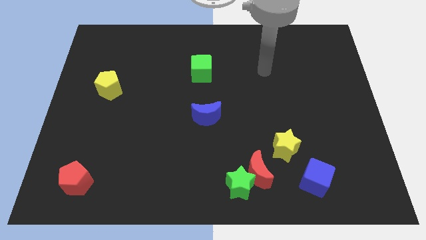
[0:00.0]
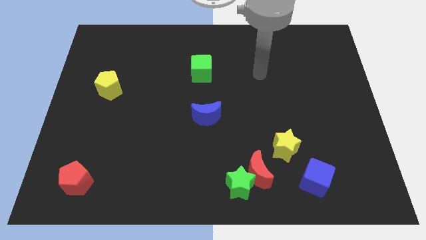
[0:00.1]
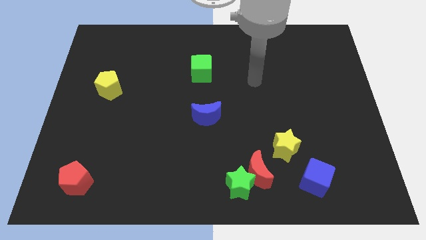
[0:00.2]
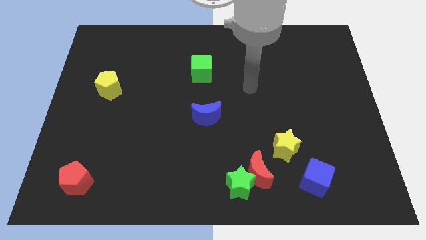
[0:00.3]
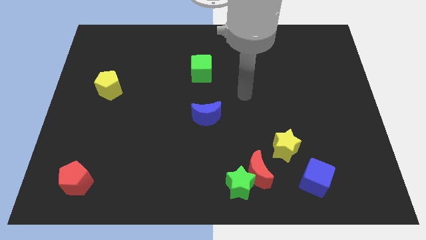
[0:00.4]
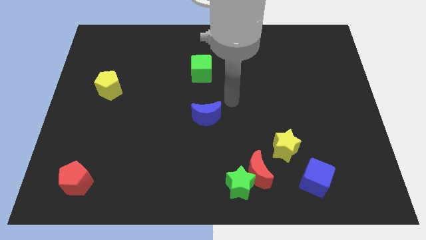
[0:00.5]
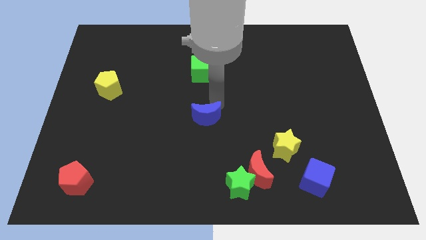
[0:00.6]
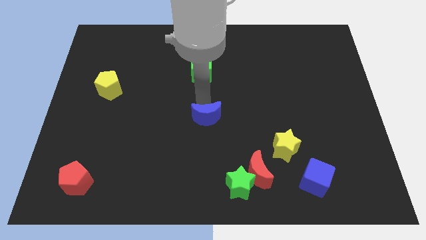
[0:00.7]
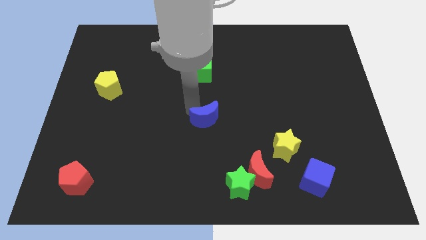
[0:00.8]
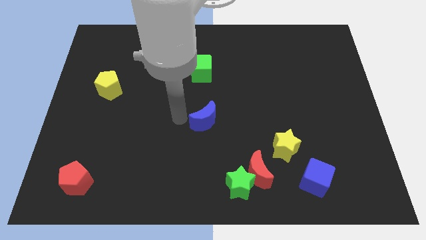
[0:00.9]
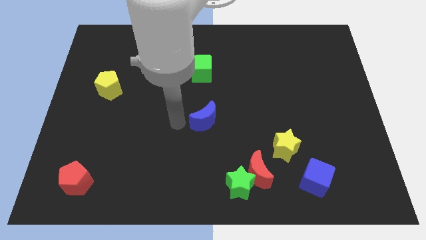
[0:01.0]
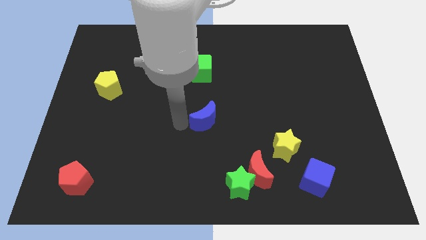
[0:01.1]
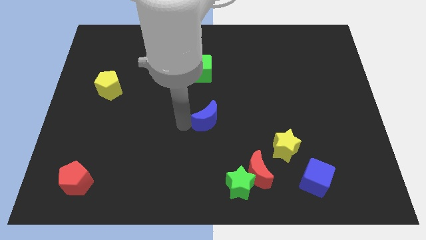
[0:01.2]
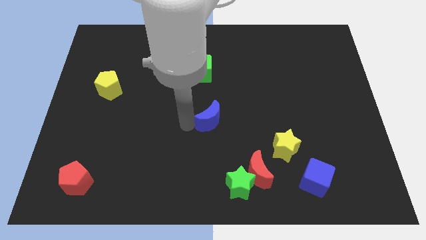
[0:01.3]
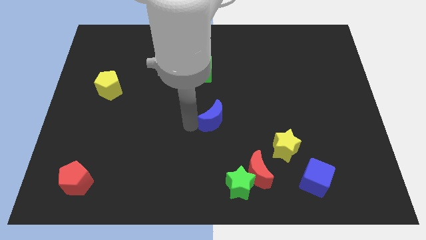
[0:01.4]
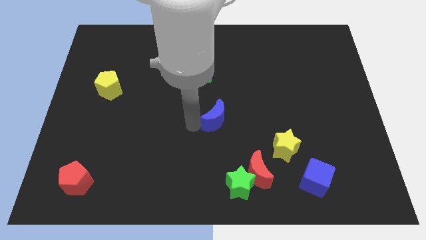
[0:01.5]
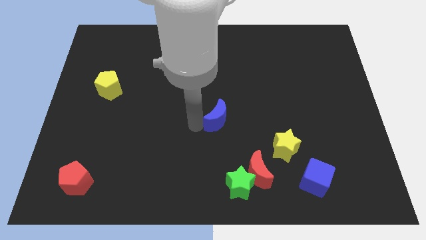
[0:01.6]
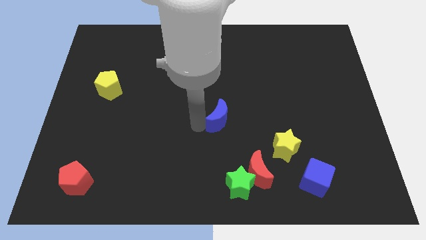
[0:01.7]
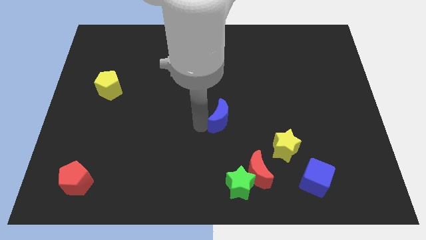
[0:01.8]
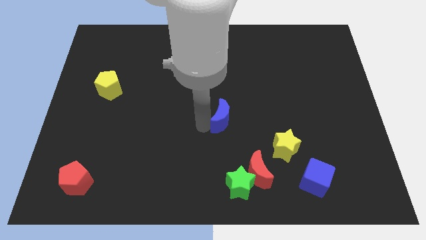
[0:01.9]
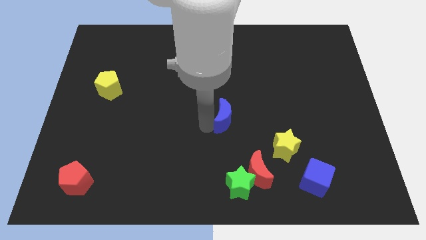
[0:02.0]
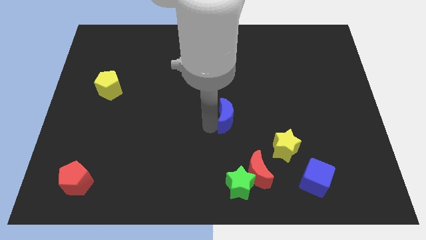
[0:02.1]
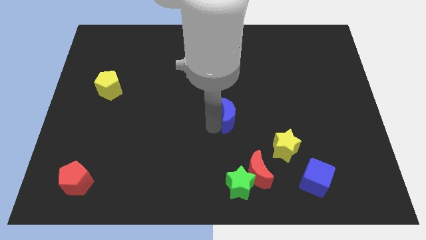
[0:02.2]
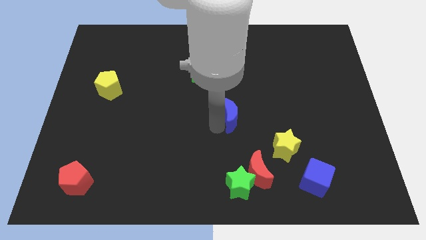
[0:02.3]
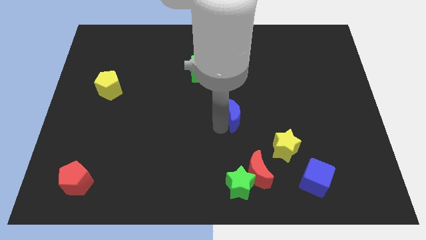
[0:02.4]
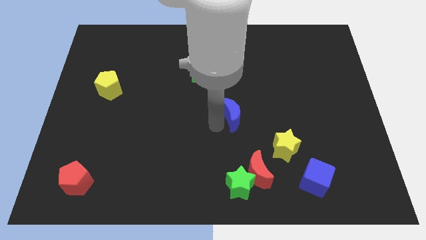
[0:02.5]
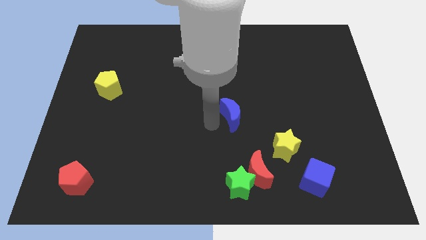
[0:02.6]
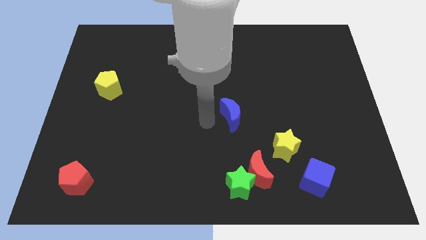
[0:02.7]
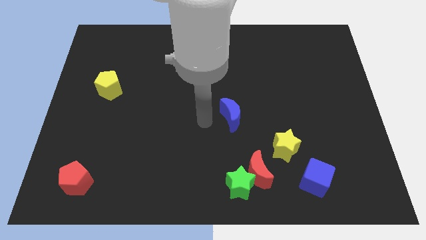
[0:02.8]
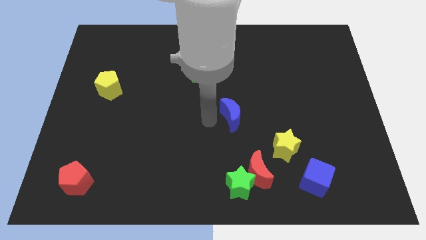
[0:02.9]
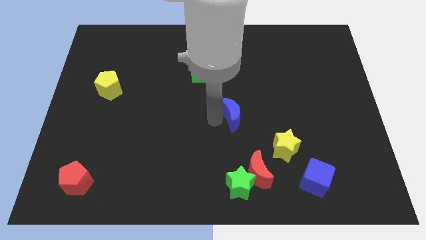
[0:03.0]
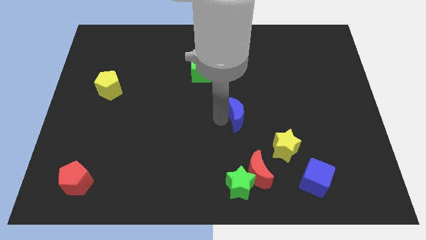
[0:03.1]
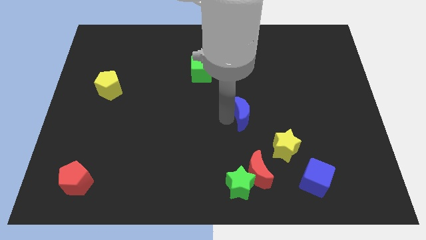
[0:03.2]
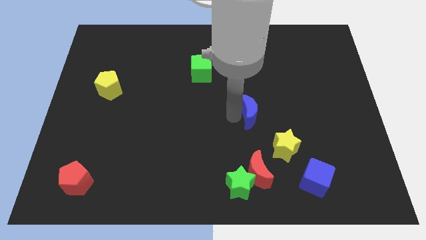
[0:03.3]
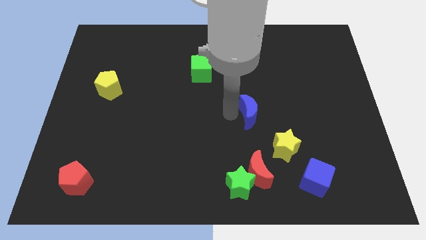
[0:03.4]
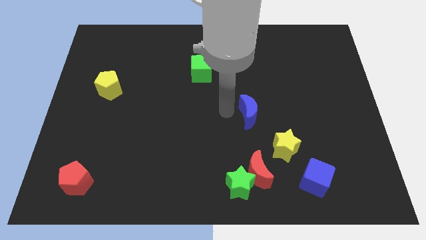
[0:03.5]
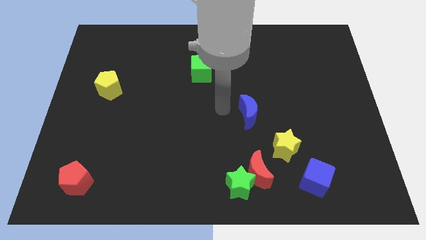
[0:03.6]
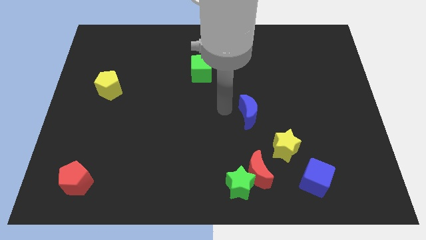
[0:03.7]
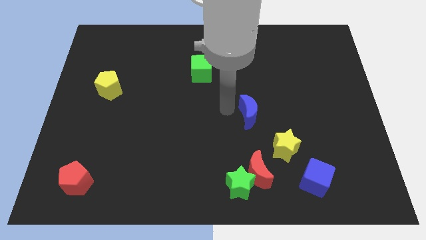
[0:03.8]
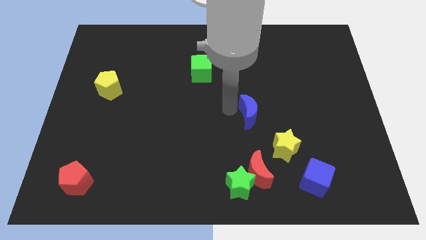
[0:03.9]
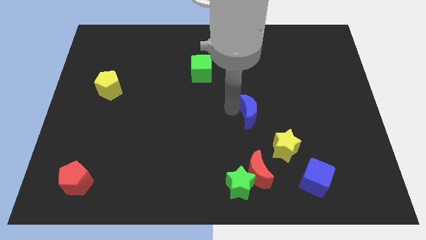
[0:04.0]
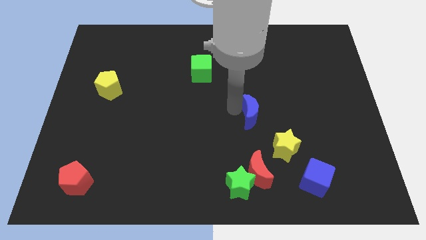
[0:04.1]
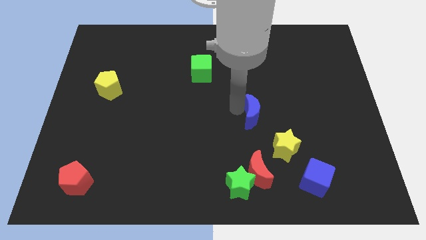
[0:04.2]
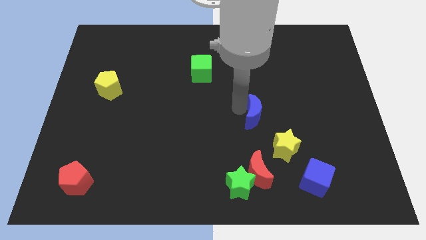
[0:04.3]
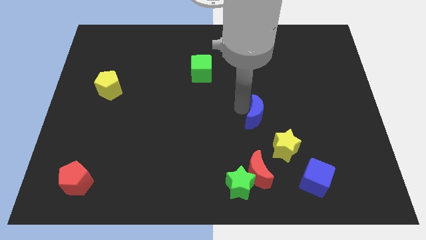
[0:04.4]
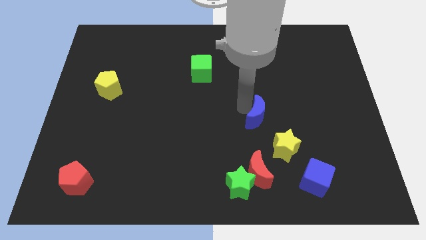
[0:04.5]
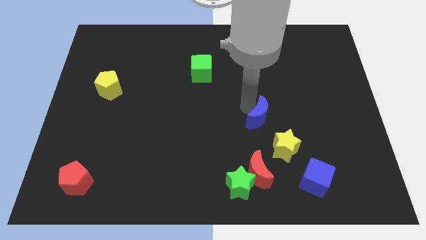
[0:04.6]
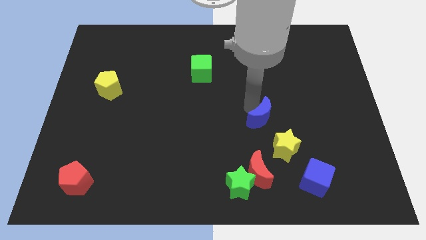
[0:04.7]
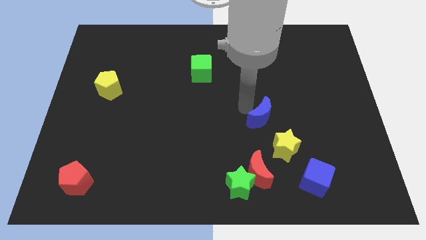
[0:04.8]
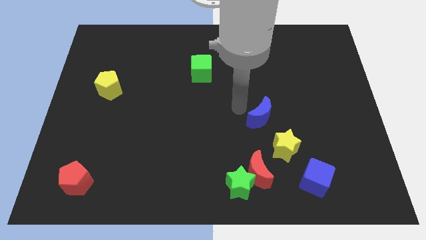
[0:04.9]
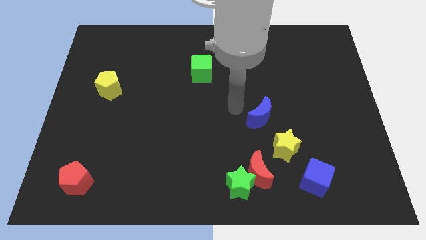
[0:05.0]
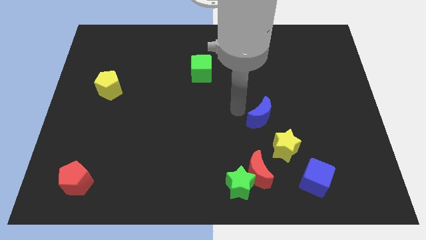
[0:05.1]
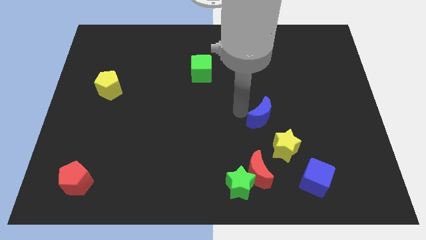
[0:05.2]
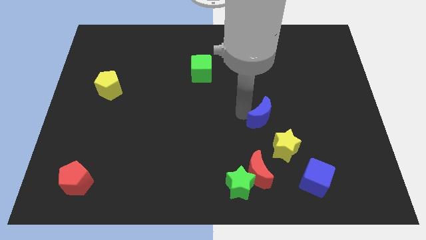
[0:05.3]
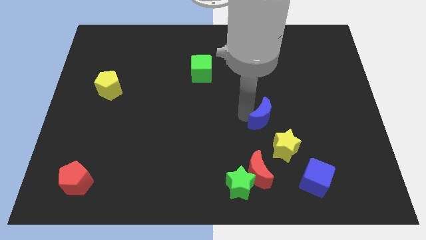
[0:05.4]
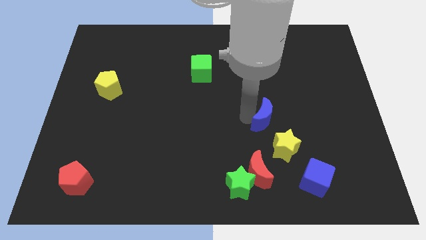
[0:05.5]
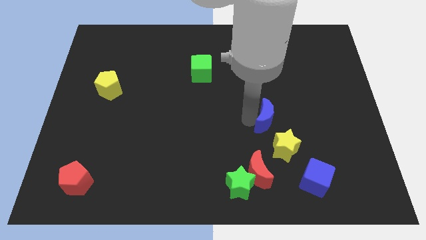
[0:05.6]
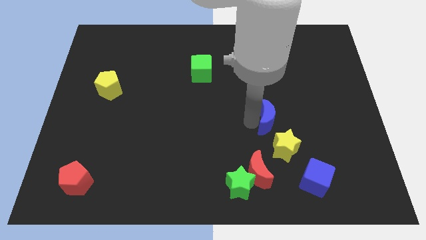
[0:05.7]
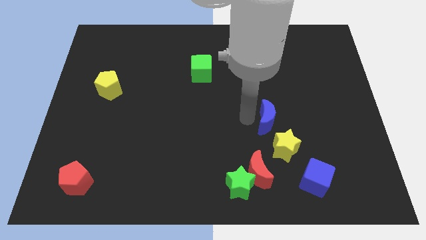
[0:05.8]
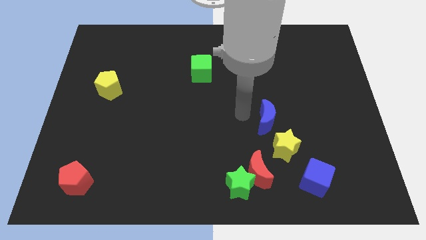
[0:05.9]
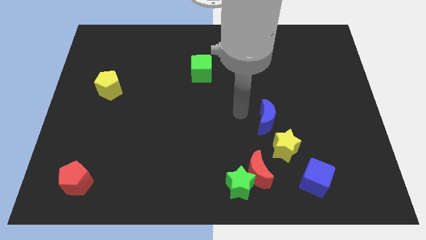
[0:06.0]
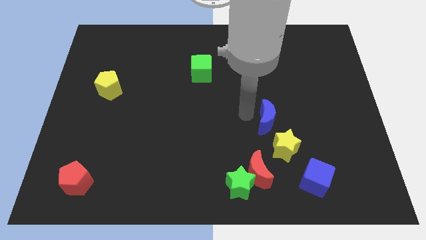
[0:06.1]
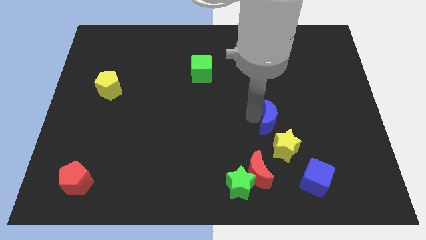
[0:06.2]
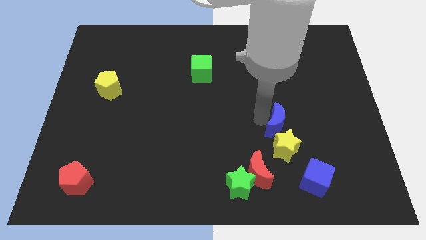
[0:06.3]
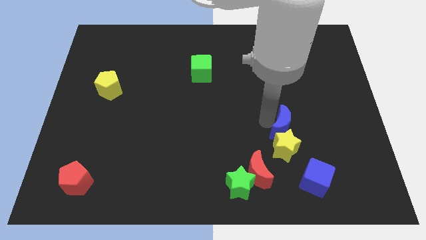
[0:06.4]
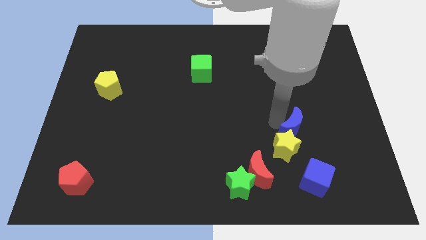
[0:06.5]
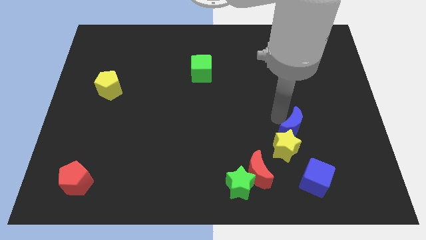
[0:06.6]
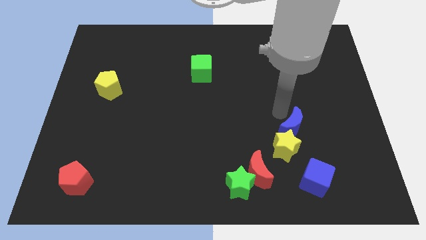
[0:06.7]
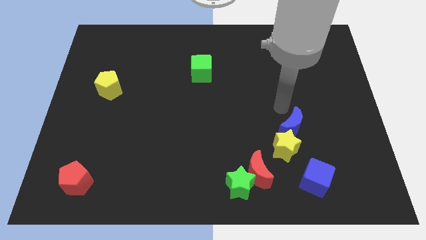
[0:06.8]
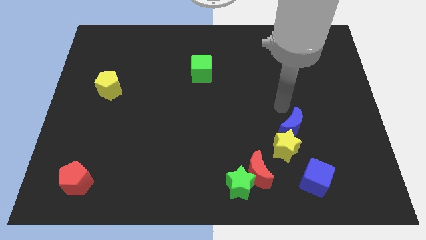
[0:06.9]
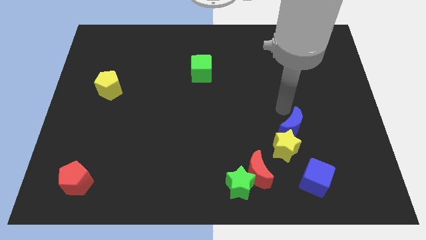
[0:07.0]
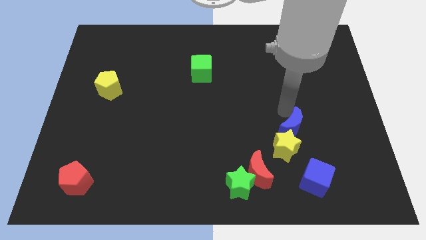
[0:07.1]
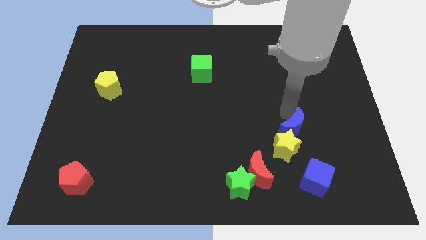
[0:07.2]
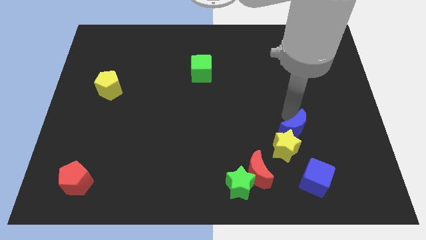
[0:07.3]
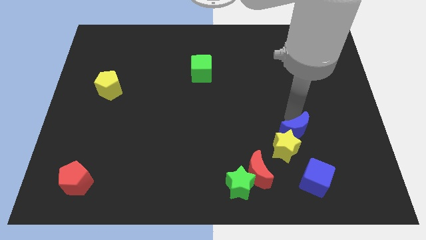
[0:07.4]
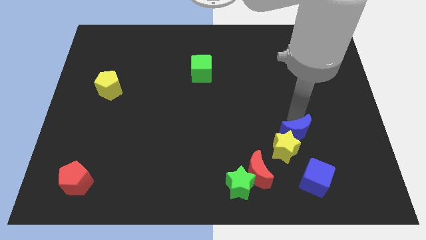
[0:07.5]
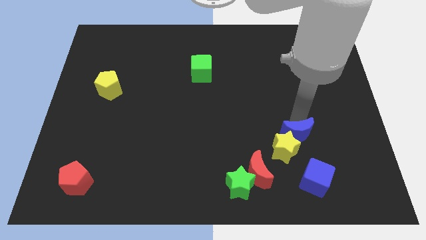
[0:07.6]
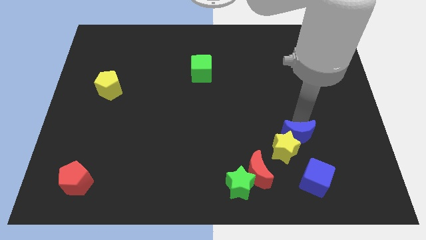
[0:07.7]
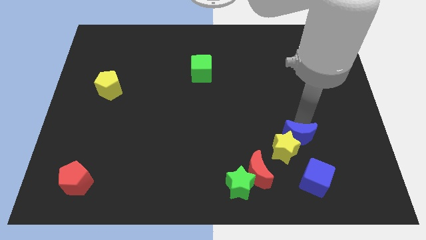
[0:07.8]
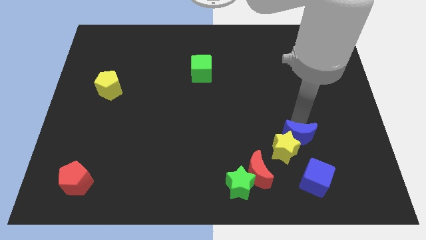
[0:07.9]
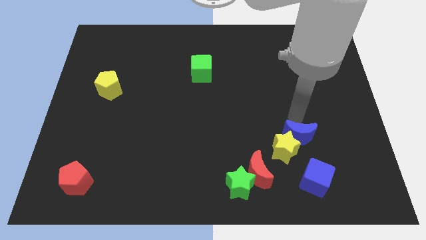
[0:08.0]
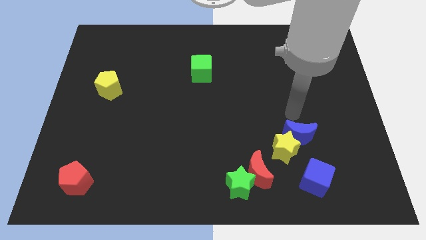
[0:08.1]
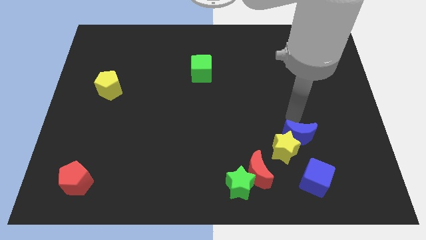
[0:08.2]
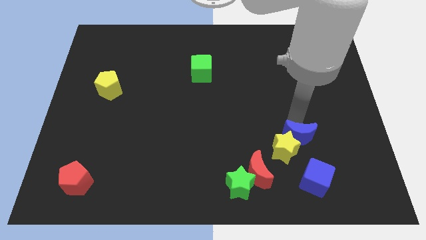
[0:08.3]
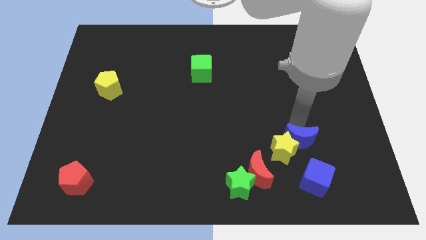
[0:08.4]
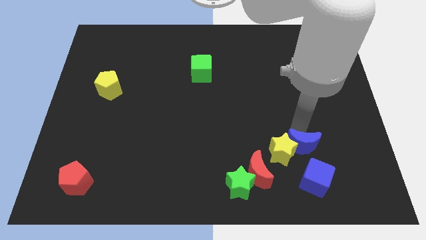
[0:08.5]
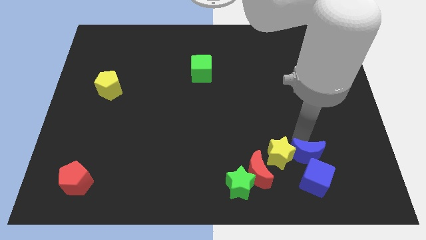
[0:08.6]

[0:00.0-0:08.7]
push the blue moon next to the blue cube
